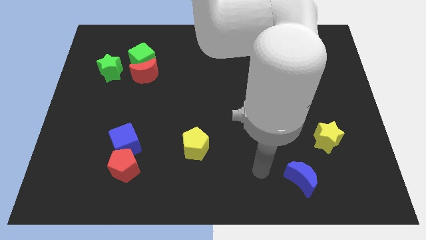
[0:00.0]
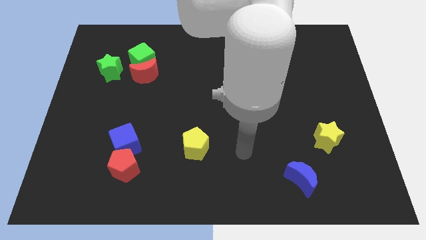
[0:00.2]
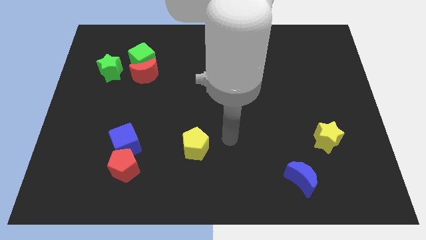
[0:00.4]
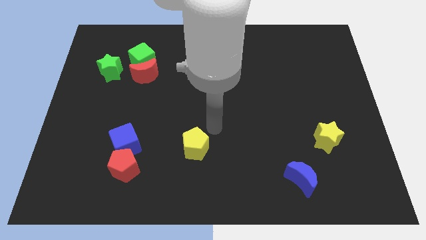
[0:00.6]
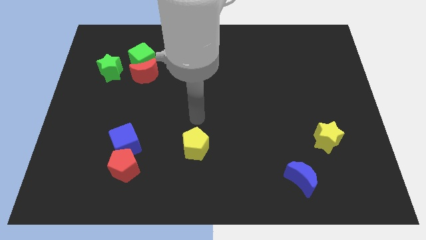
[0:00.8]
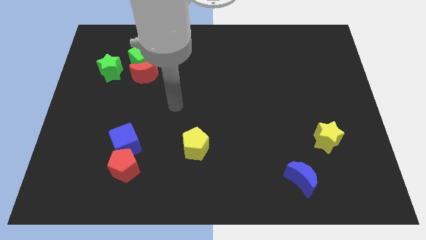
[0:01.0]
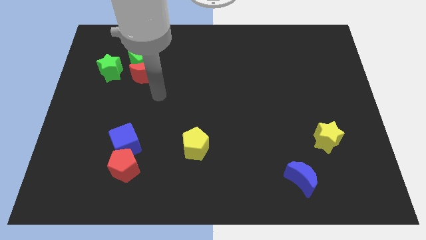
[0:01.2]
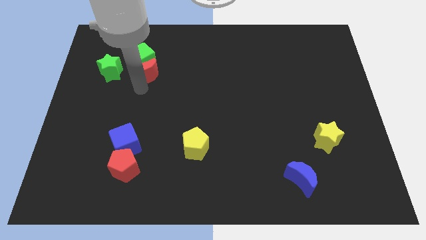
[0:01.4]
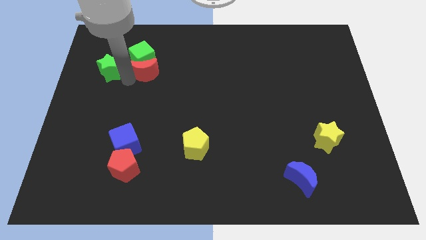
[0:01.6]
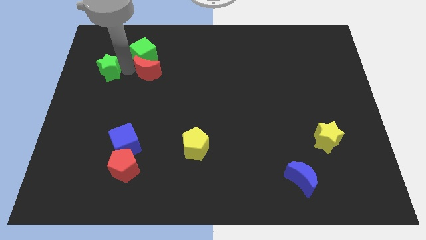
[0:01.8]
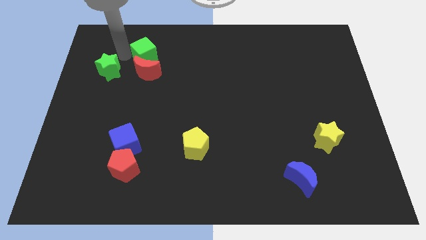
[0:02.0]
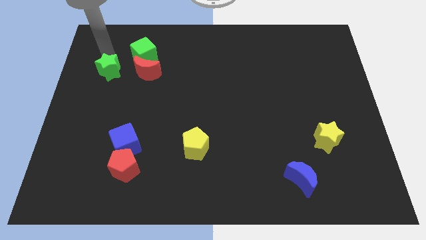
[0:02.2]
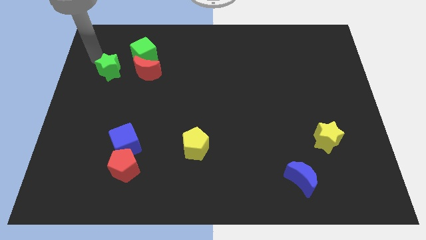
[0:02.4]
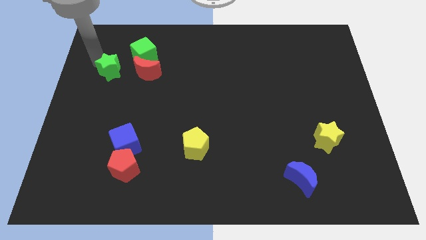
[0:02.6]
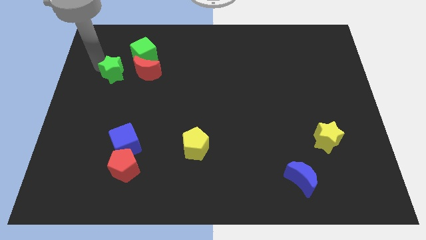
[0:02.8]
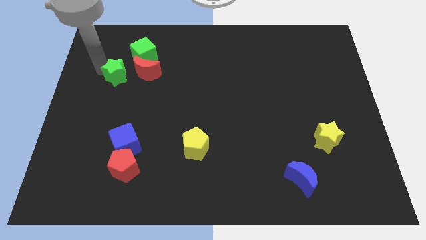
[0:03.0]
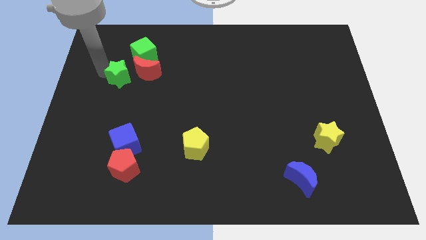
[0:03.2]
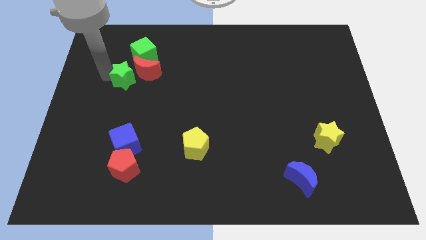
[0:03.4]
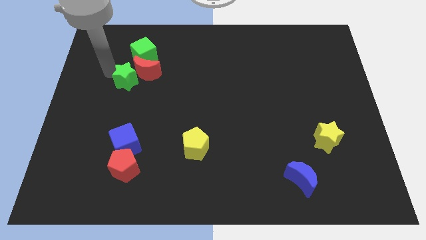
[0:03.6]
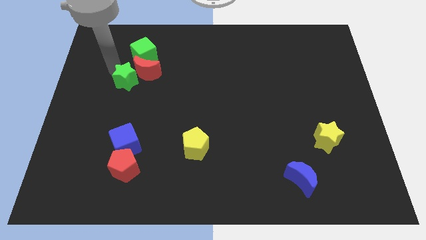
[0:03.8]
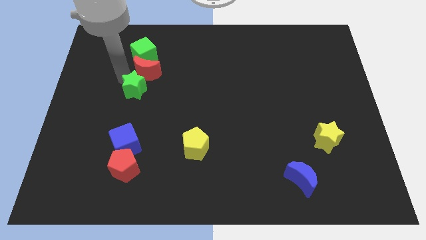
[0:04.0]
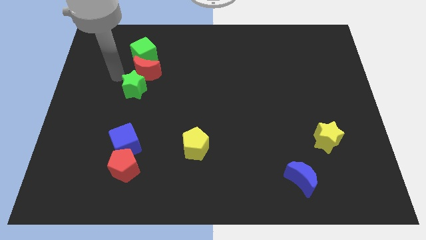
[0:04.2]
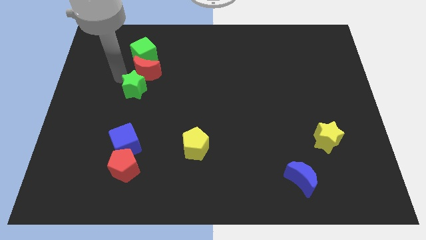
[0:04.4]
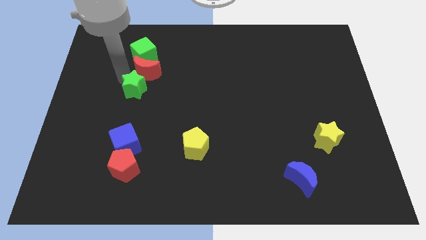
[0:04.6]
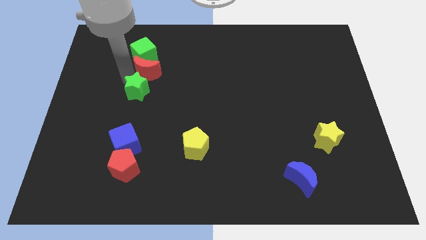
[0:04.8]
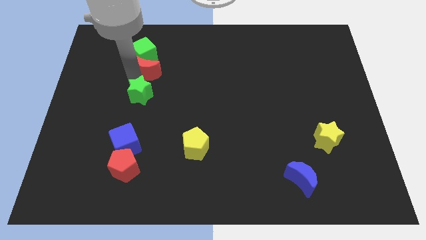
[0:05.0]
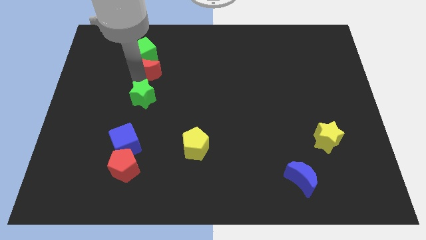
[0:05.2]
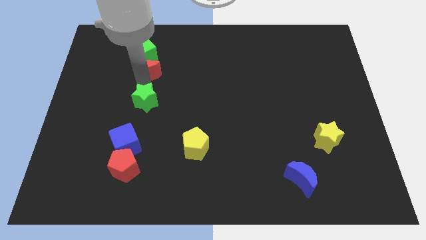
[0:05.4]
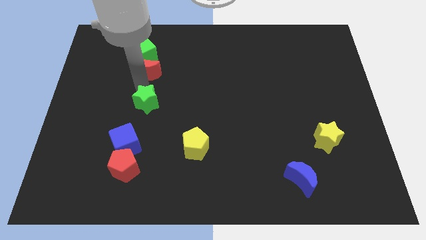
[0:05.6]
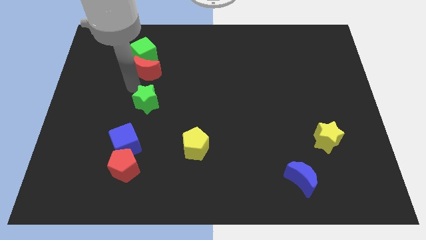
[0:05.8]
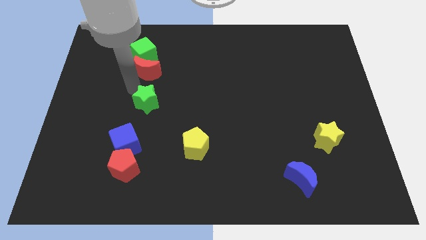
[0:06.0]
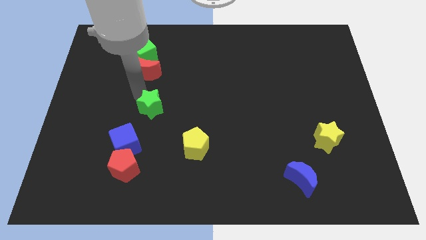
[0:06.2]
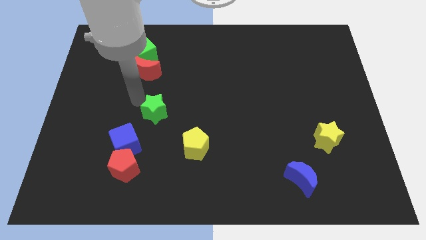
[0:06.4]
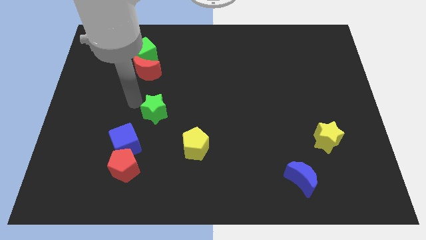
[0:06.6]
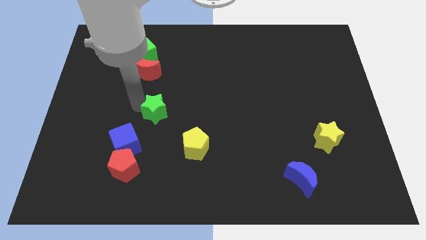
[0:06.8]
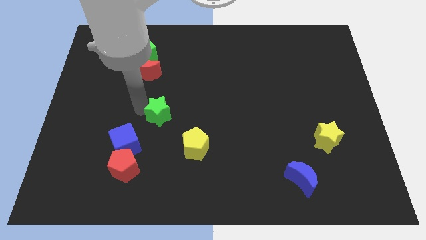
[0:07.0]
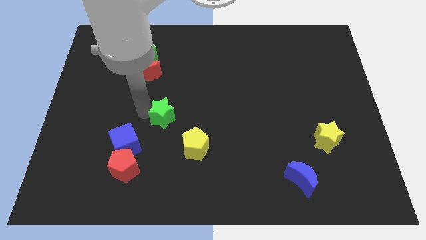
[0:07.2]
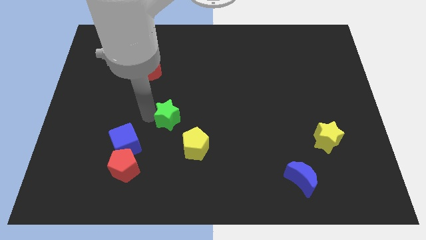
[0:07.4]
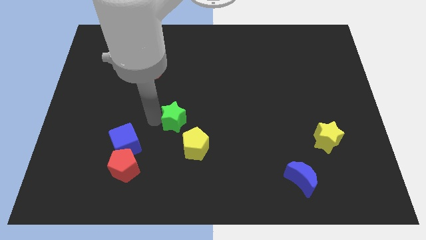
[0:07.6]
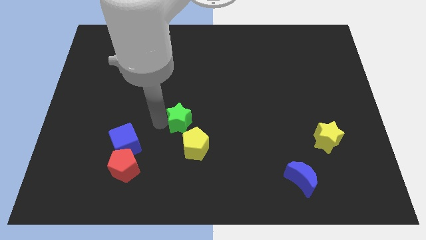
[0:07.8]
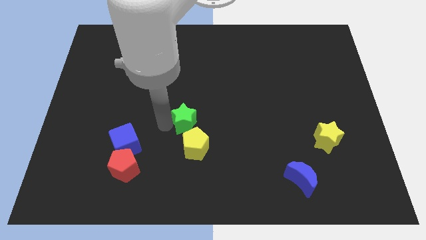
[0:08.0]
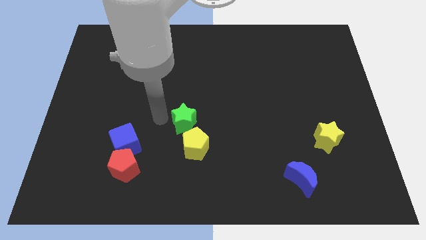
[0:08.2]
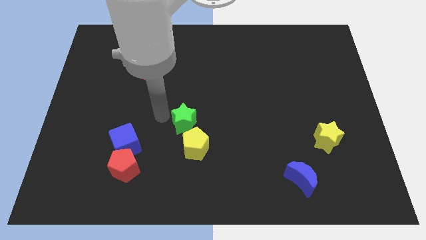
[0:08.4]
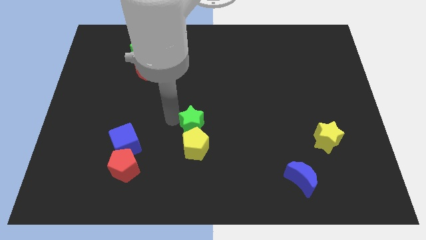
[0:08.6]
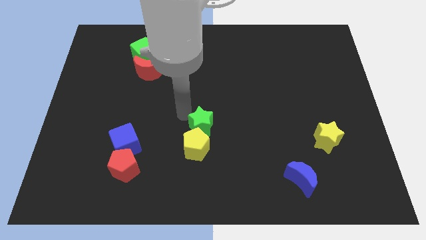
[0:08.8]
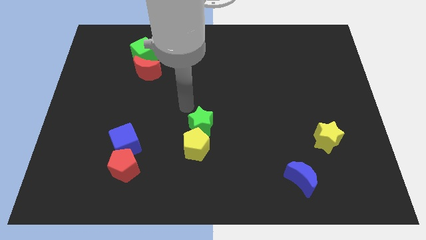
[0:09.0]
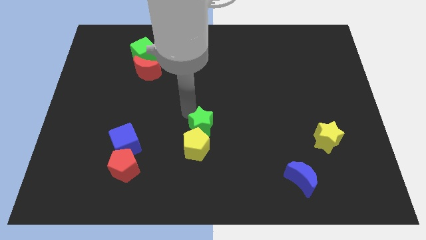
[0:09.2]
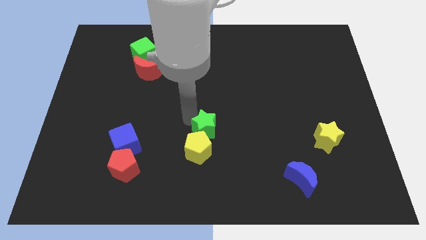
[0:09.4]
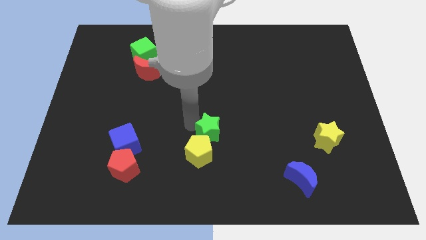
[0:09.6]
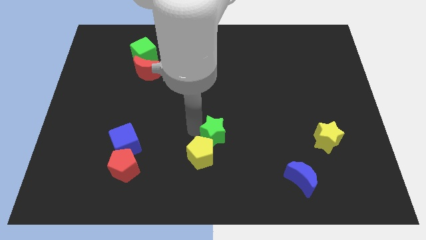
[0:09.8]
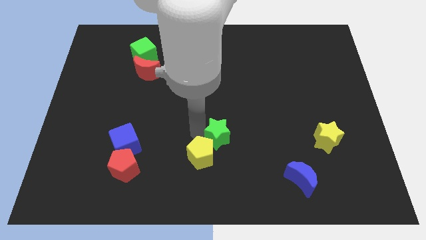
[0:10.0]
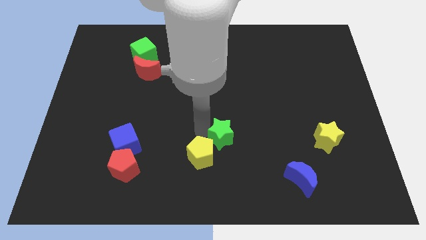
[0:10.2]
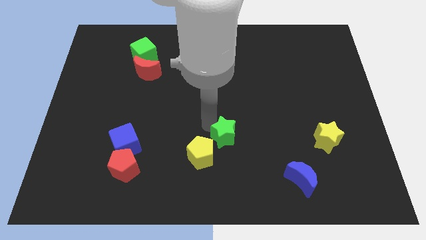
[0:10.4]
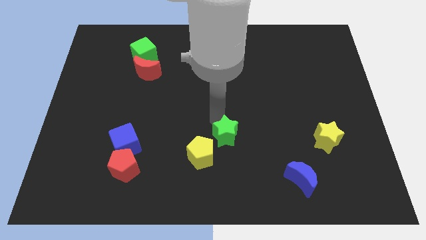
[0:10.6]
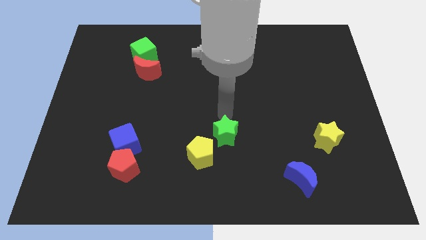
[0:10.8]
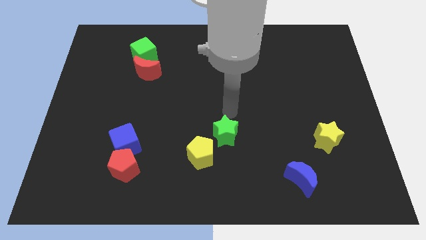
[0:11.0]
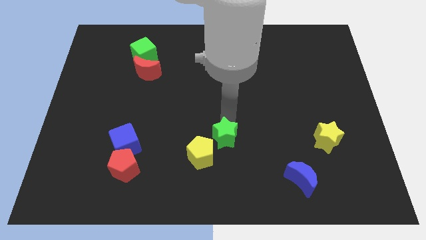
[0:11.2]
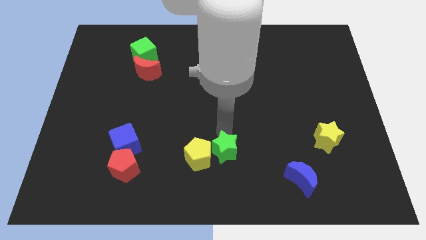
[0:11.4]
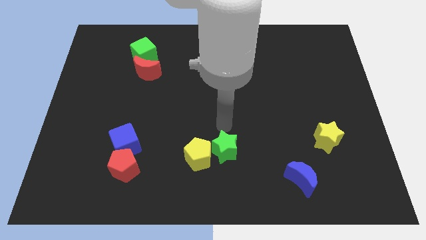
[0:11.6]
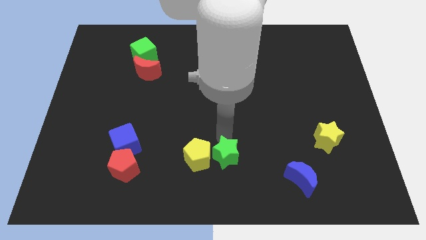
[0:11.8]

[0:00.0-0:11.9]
move the green star to the bottom right side of the yellow pentagon

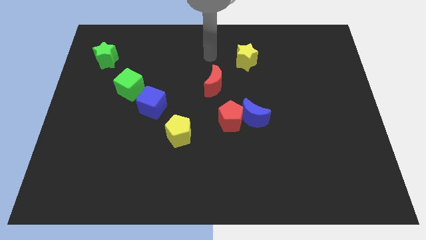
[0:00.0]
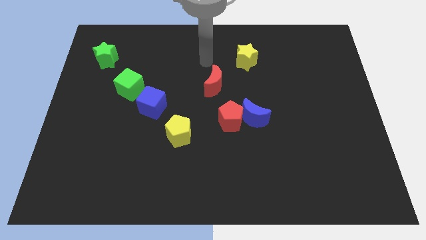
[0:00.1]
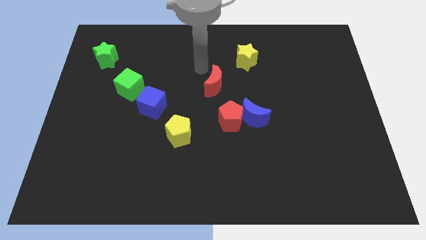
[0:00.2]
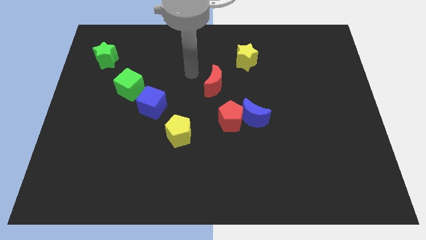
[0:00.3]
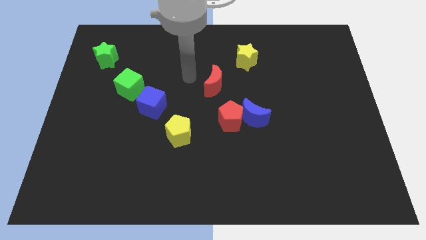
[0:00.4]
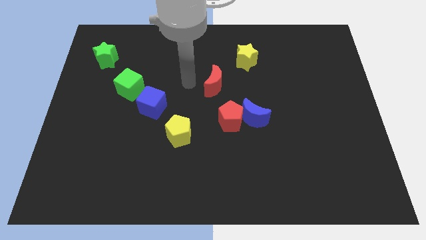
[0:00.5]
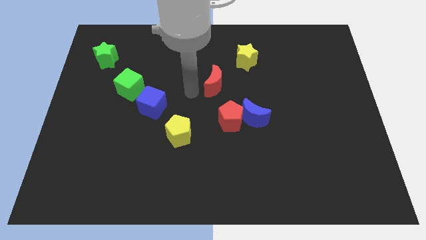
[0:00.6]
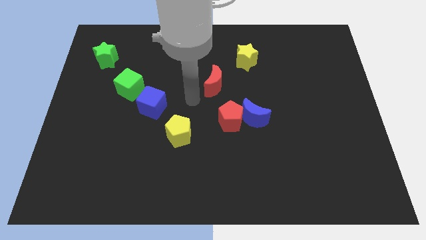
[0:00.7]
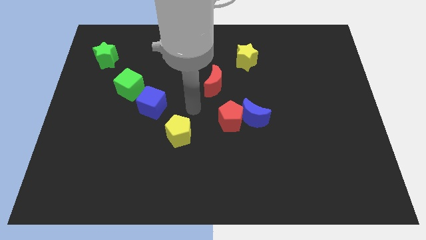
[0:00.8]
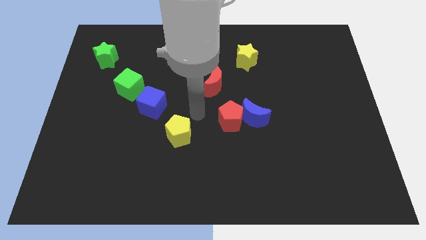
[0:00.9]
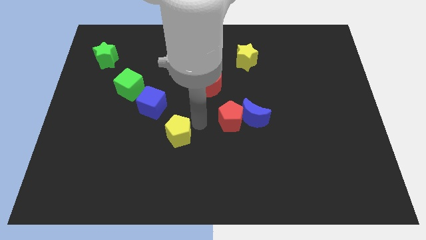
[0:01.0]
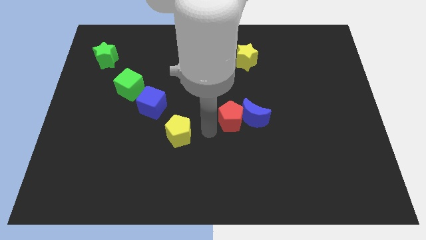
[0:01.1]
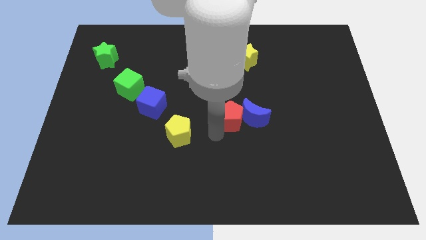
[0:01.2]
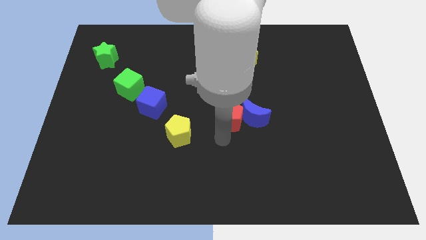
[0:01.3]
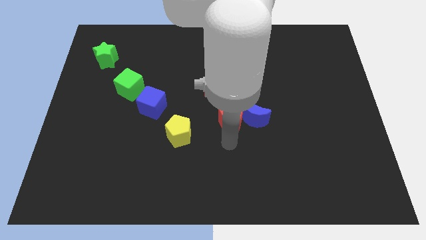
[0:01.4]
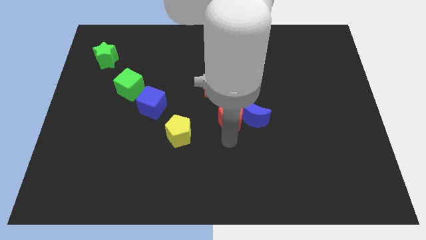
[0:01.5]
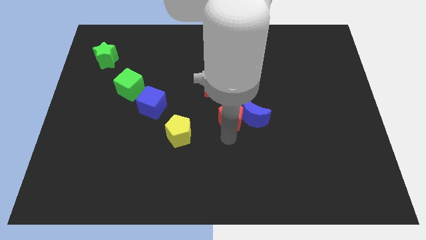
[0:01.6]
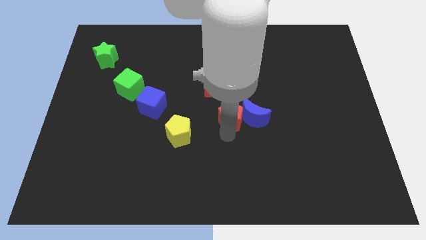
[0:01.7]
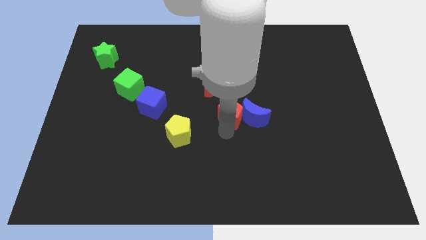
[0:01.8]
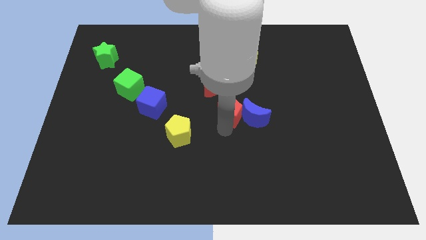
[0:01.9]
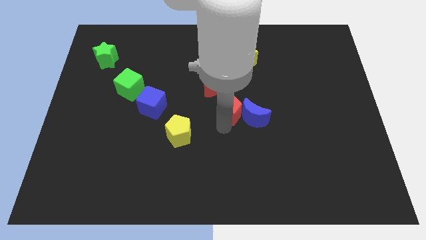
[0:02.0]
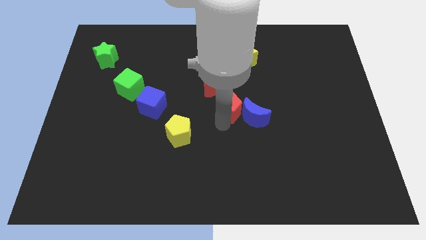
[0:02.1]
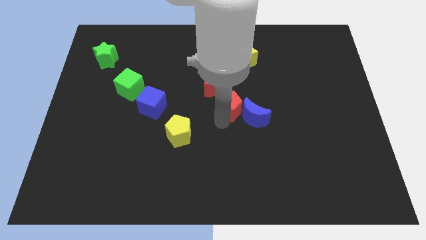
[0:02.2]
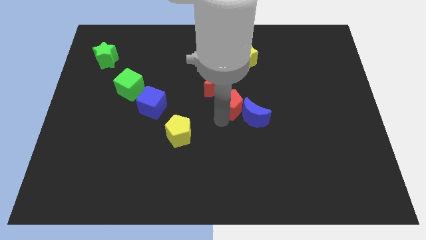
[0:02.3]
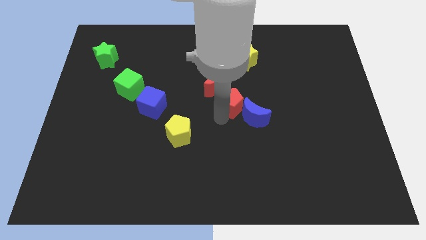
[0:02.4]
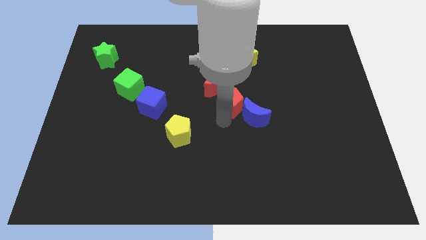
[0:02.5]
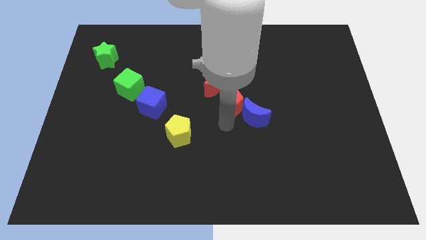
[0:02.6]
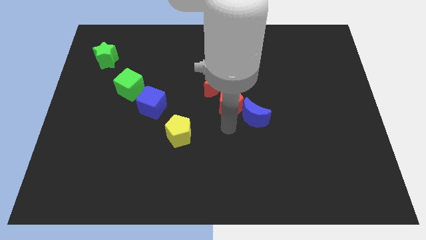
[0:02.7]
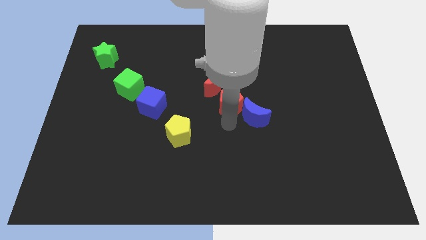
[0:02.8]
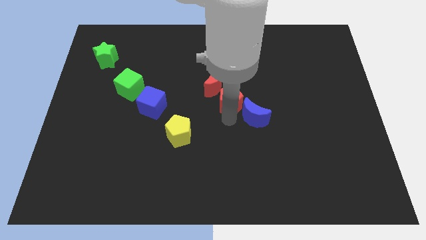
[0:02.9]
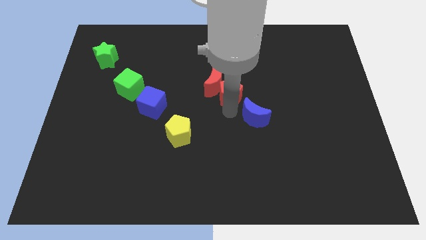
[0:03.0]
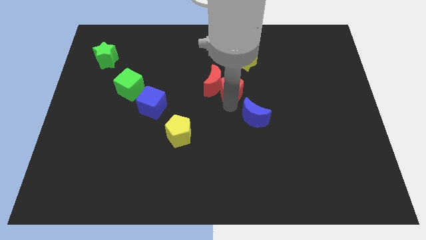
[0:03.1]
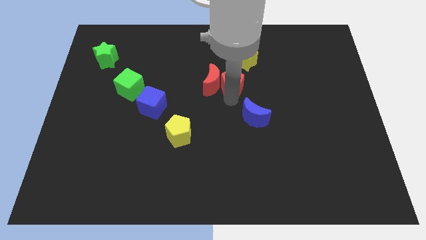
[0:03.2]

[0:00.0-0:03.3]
move the red pentagon to the bottom left side of the yellow star
